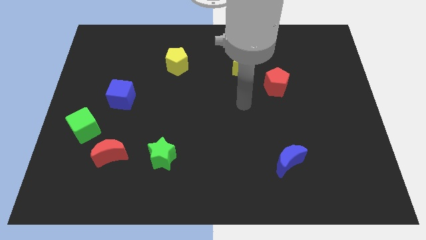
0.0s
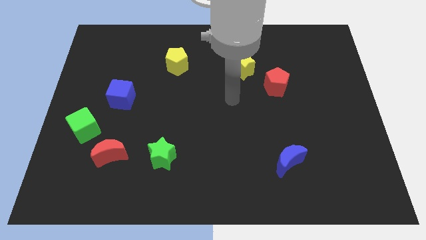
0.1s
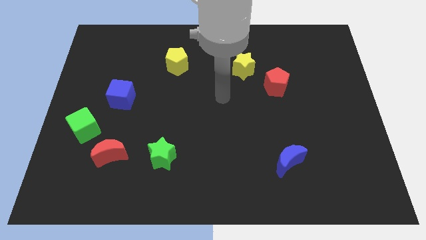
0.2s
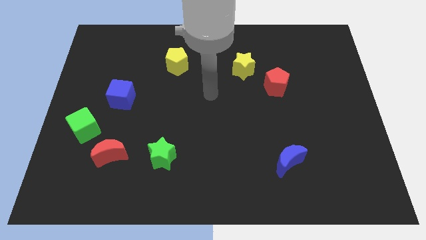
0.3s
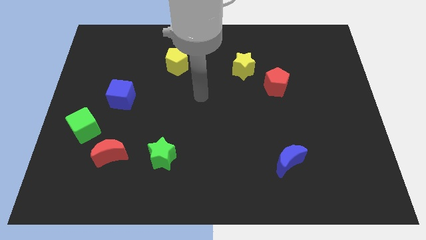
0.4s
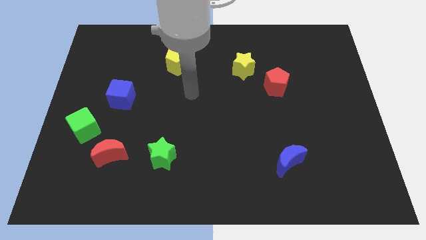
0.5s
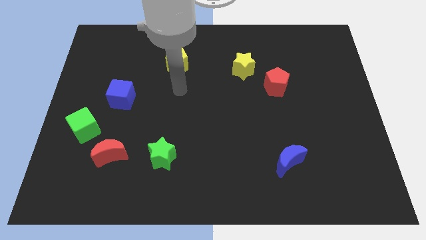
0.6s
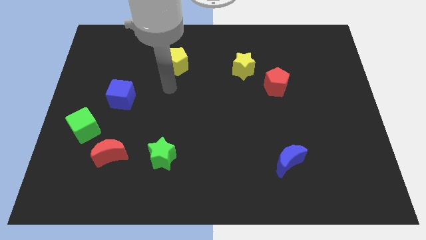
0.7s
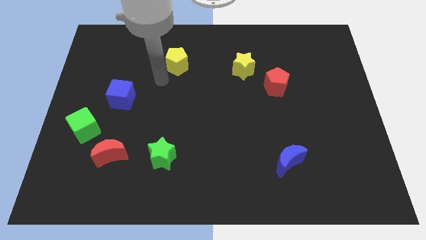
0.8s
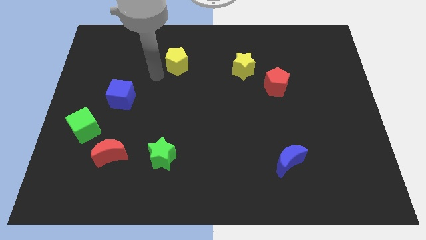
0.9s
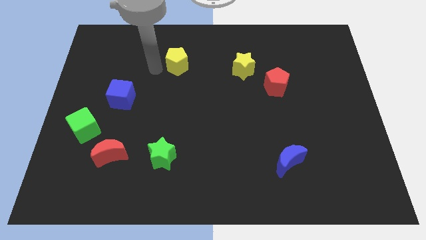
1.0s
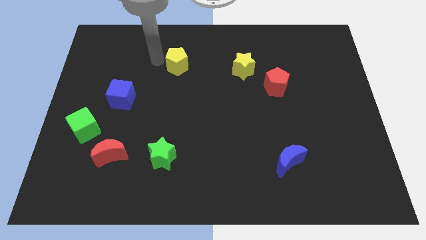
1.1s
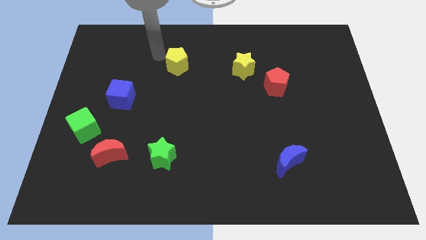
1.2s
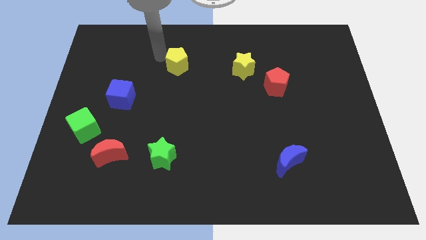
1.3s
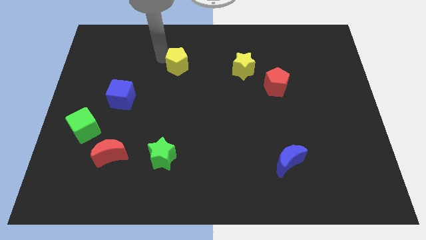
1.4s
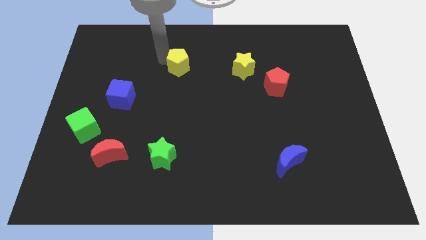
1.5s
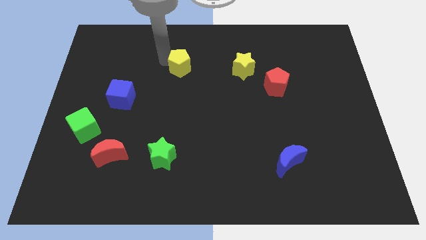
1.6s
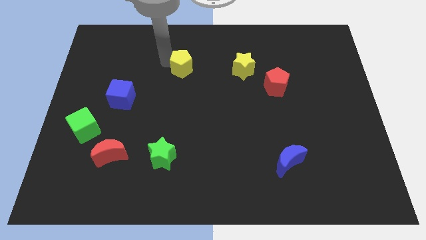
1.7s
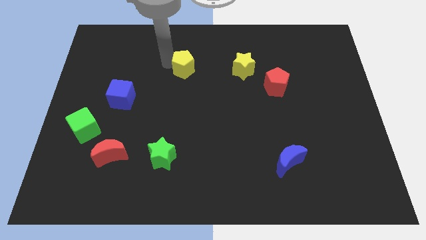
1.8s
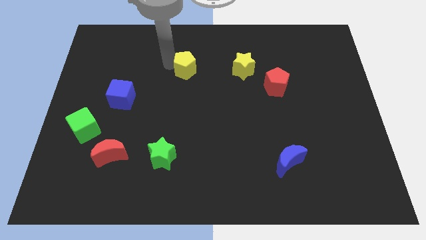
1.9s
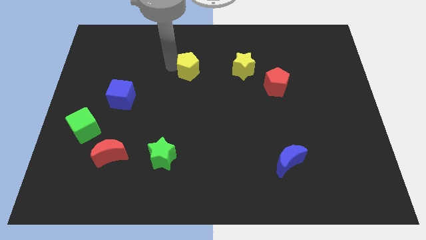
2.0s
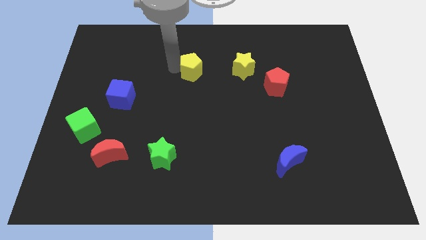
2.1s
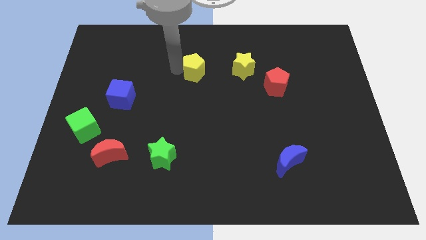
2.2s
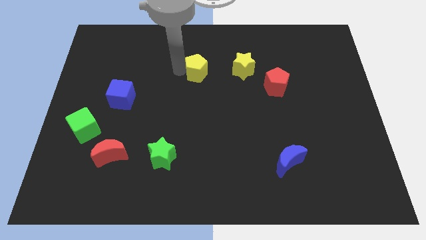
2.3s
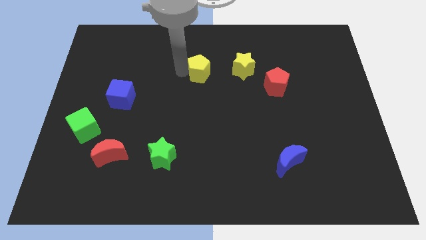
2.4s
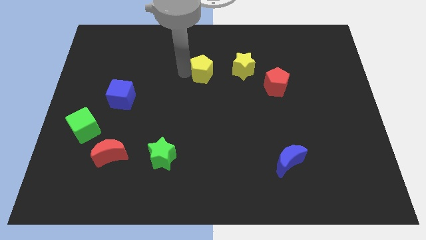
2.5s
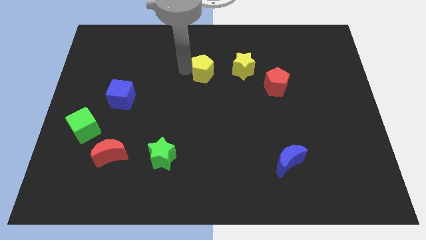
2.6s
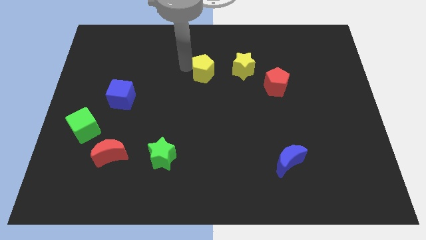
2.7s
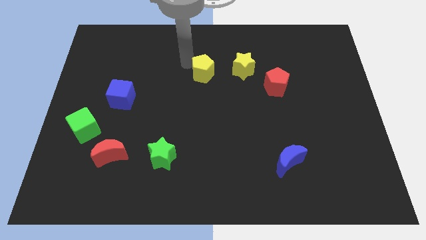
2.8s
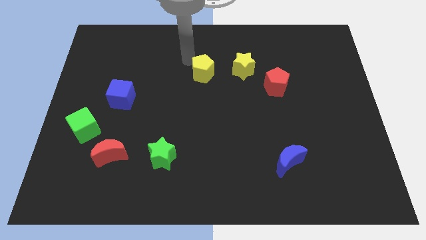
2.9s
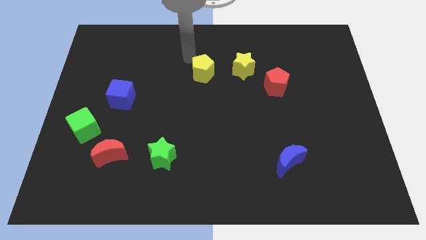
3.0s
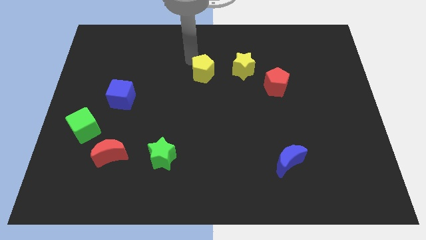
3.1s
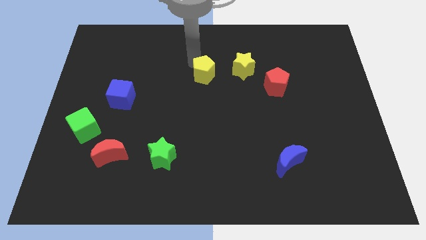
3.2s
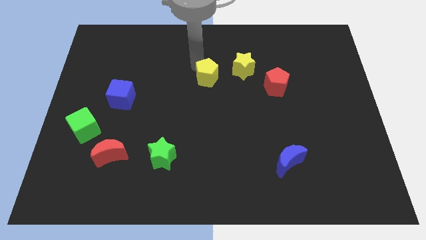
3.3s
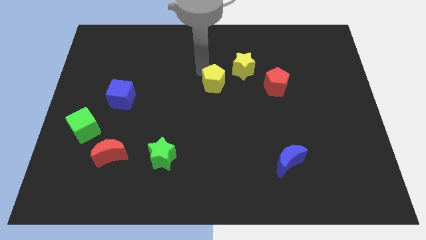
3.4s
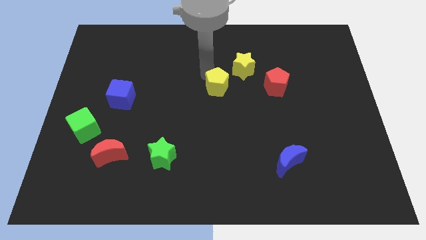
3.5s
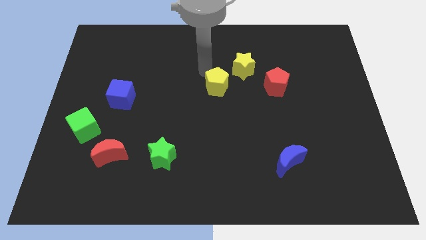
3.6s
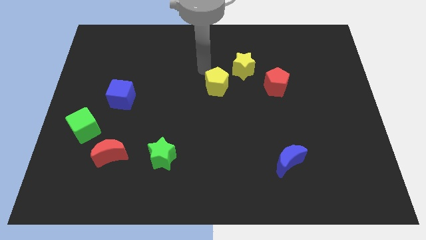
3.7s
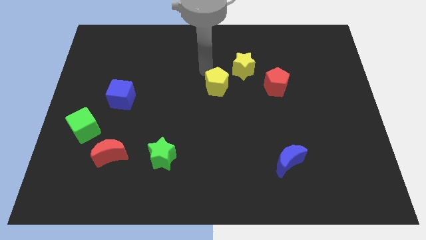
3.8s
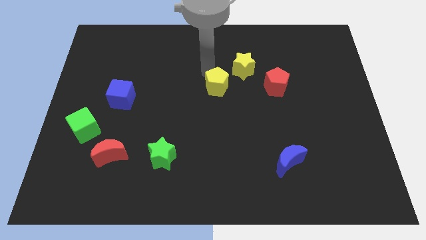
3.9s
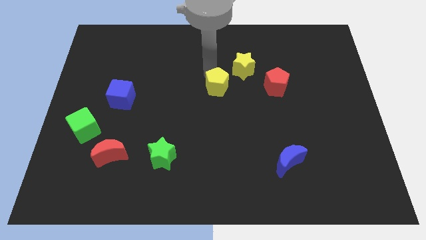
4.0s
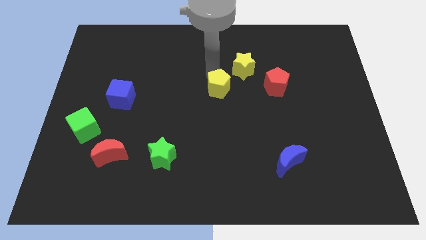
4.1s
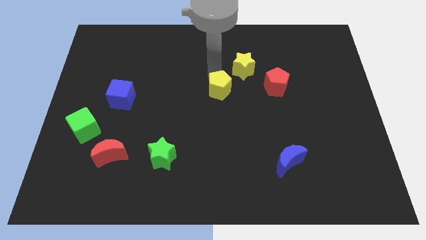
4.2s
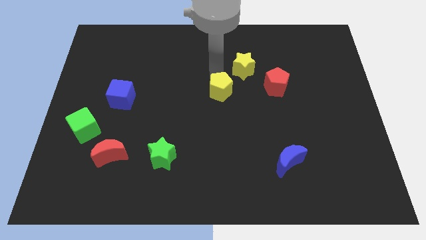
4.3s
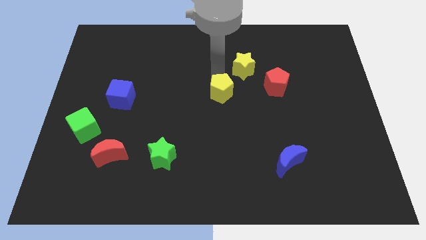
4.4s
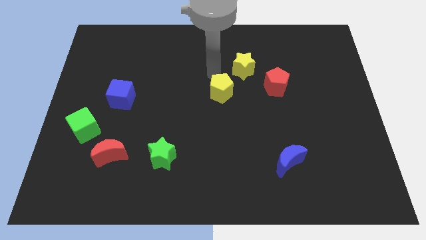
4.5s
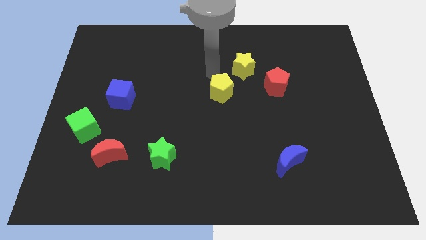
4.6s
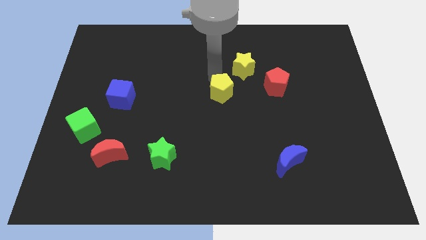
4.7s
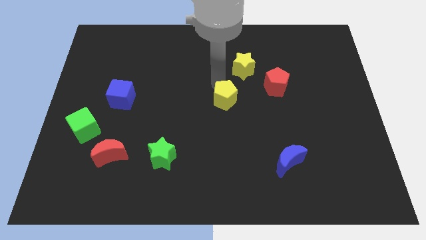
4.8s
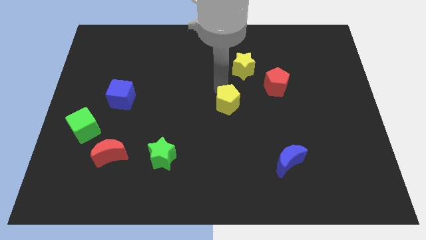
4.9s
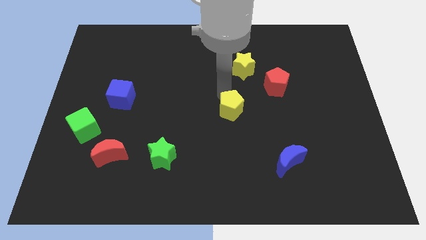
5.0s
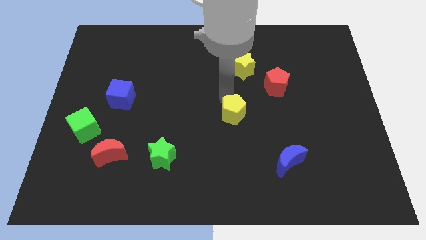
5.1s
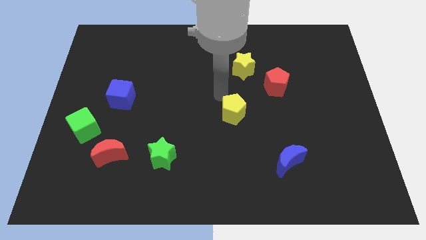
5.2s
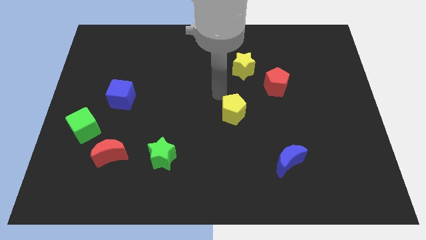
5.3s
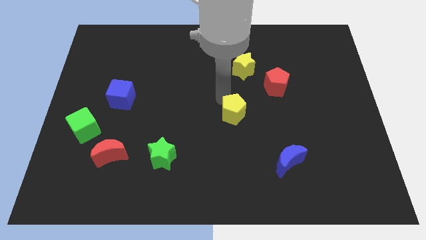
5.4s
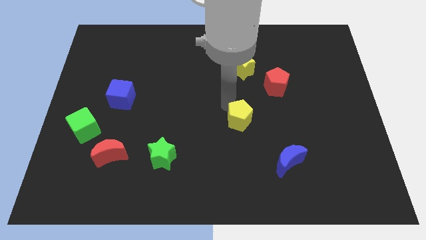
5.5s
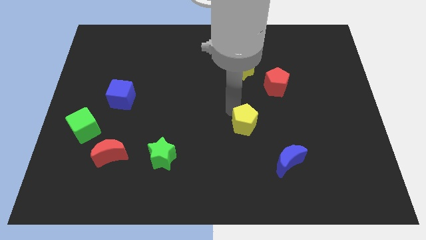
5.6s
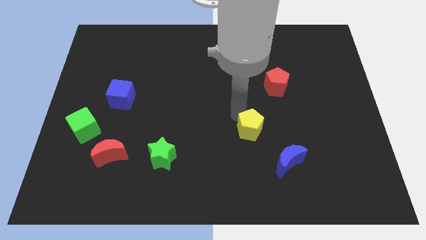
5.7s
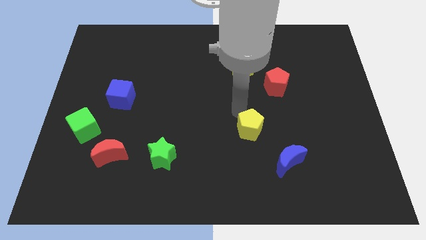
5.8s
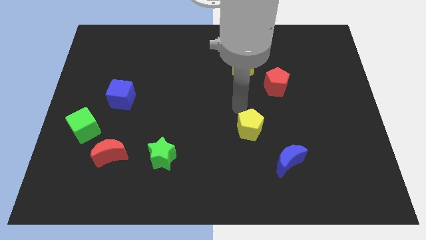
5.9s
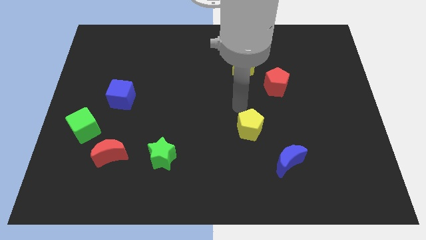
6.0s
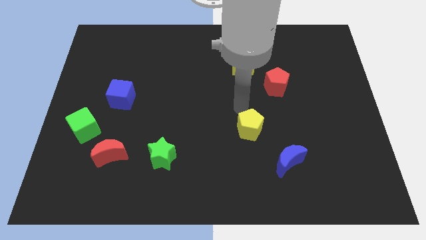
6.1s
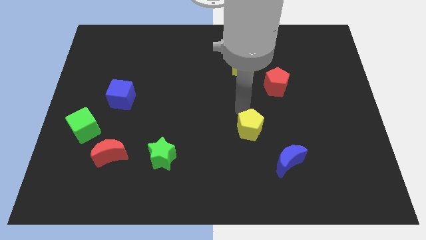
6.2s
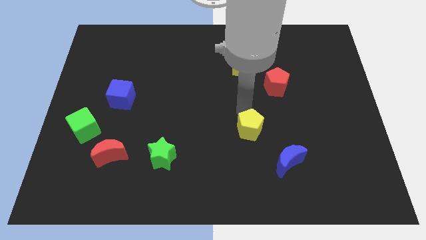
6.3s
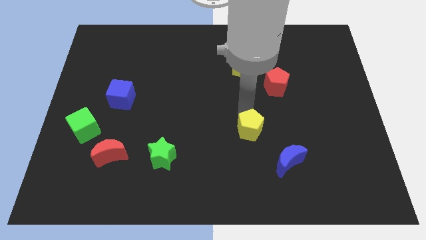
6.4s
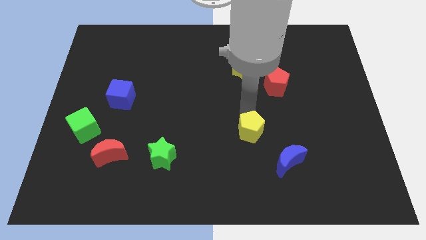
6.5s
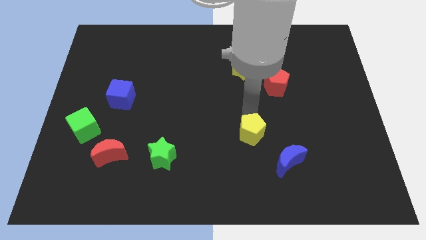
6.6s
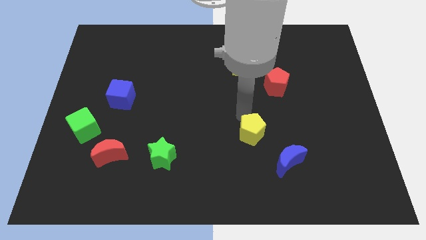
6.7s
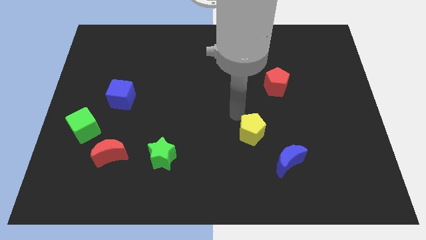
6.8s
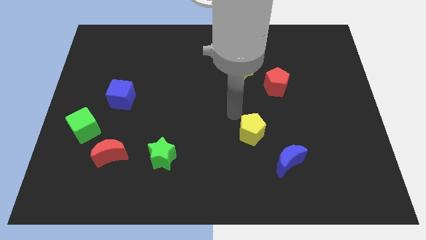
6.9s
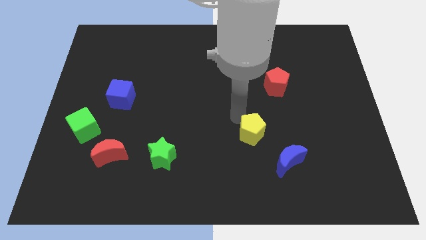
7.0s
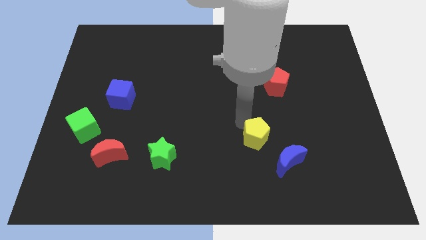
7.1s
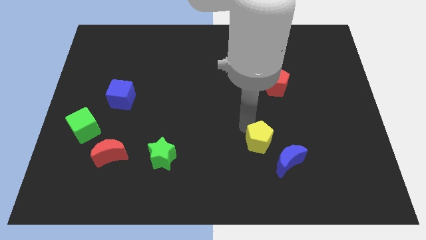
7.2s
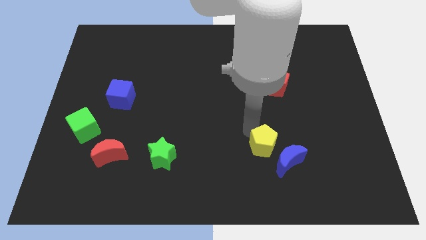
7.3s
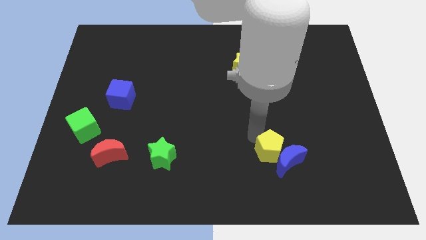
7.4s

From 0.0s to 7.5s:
slide the yellow pentagon to the blue moon
